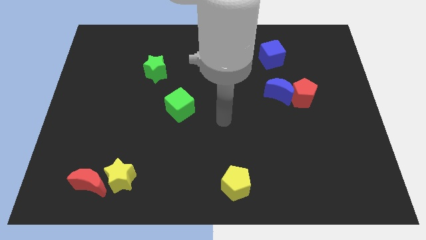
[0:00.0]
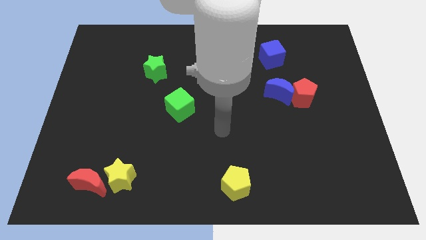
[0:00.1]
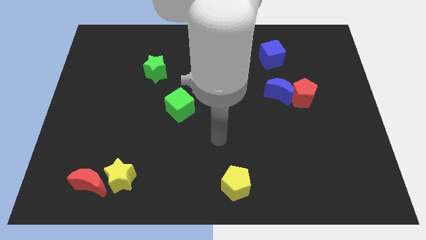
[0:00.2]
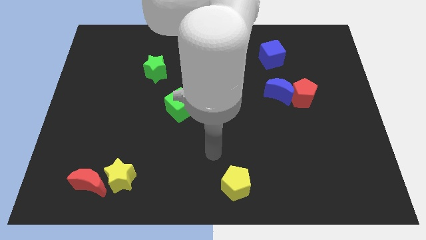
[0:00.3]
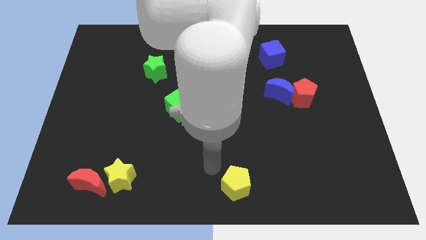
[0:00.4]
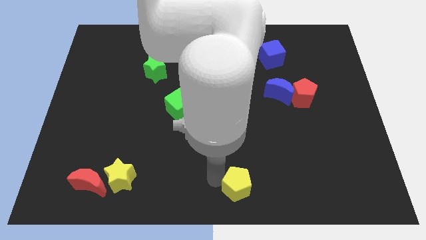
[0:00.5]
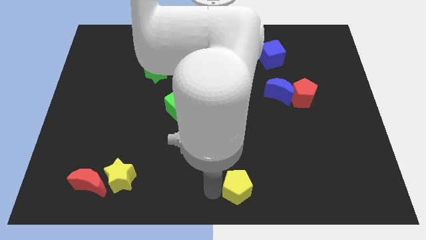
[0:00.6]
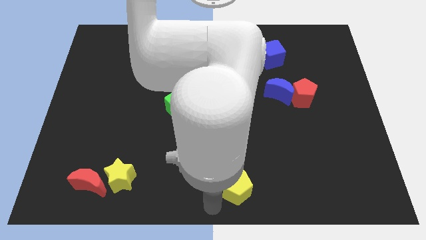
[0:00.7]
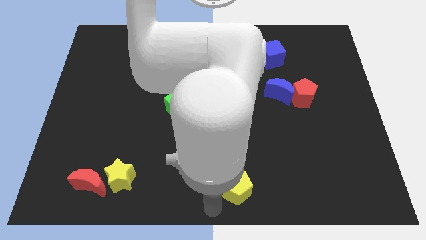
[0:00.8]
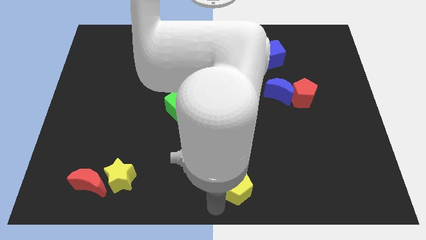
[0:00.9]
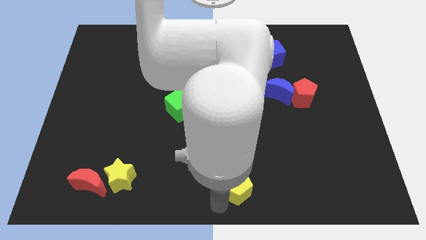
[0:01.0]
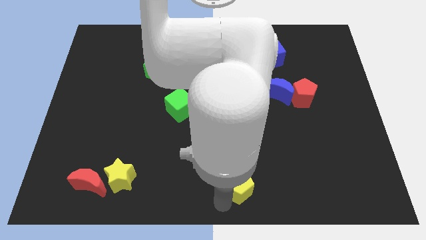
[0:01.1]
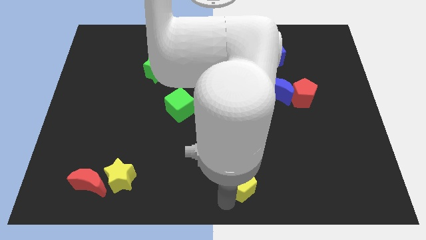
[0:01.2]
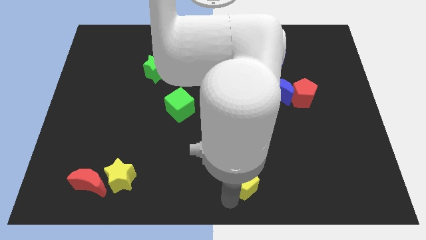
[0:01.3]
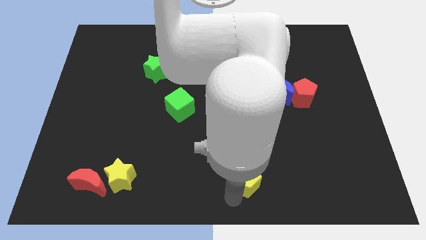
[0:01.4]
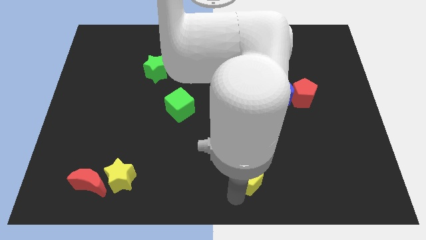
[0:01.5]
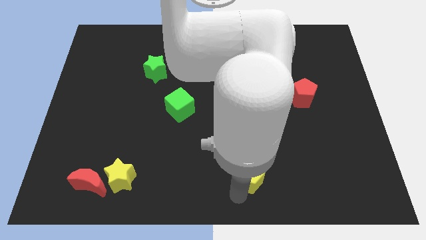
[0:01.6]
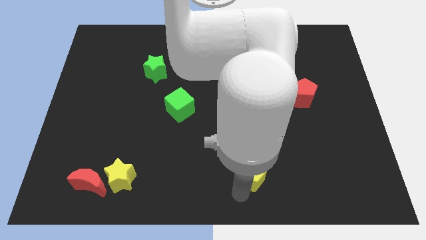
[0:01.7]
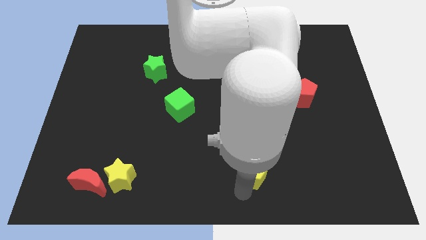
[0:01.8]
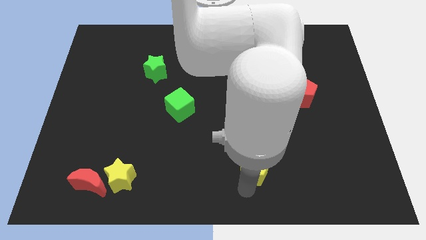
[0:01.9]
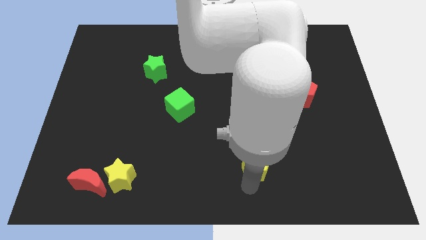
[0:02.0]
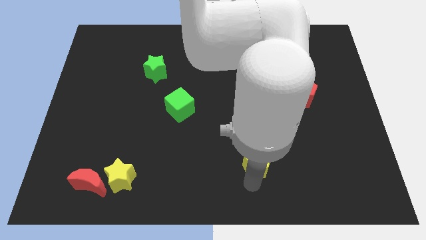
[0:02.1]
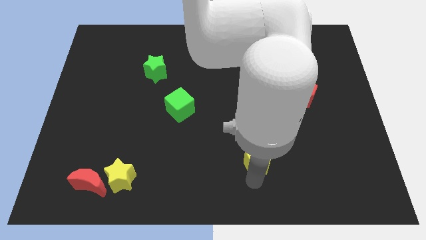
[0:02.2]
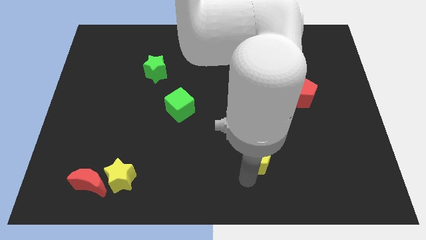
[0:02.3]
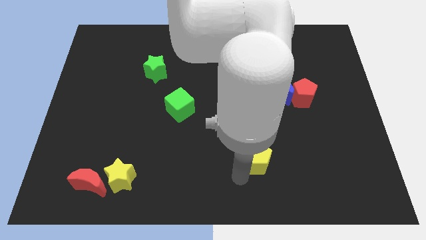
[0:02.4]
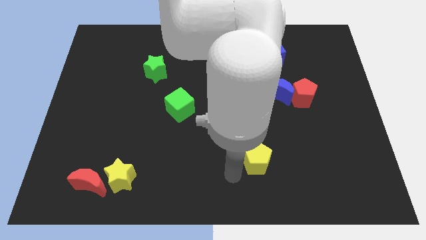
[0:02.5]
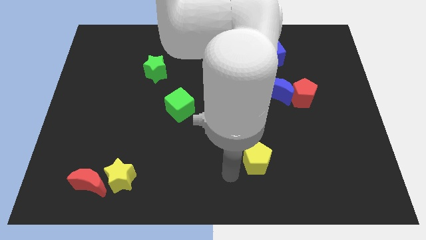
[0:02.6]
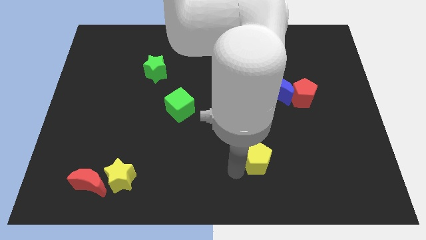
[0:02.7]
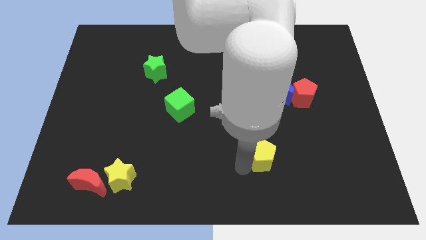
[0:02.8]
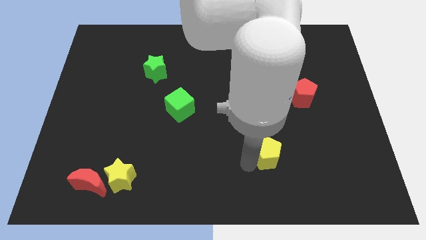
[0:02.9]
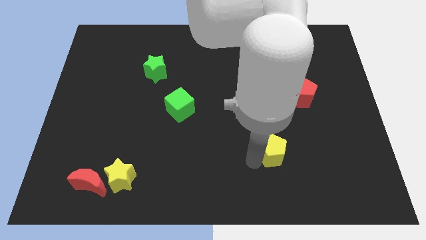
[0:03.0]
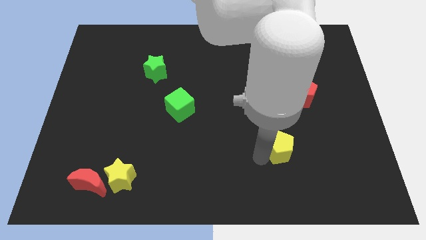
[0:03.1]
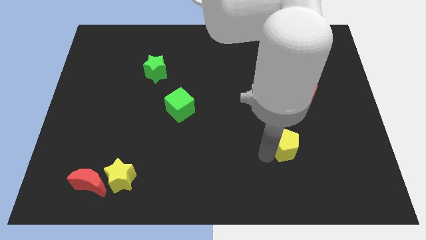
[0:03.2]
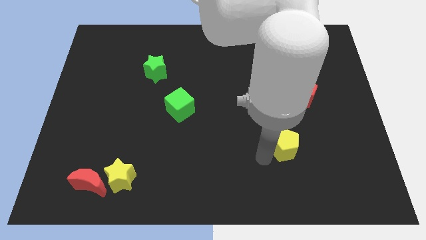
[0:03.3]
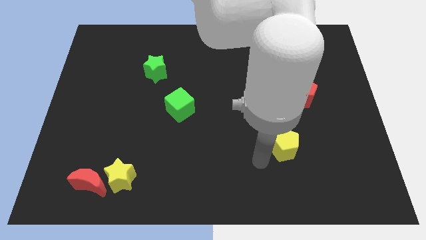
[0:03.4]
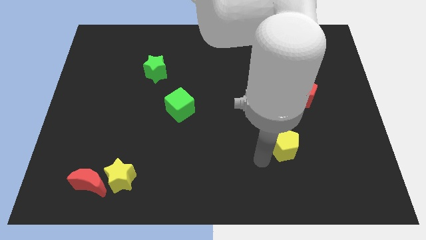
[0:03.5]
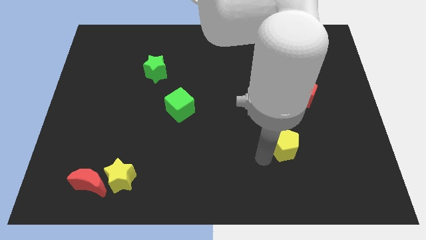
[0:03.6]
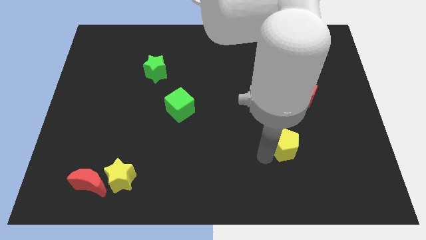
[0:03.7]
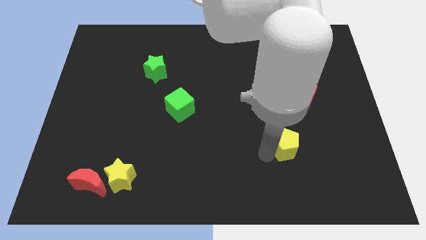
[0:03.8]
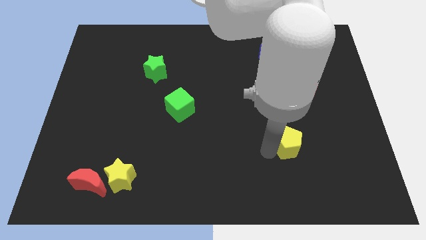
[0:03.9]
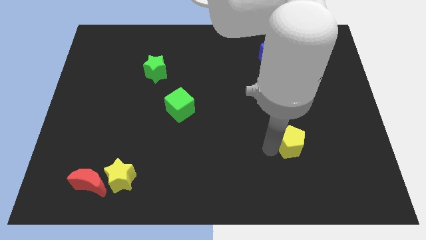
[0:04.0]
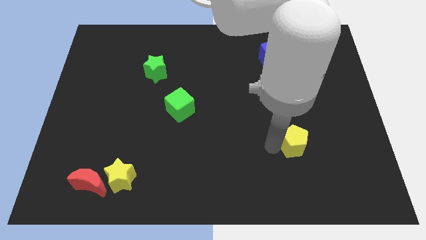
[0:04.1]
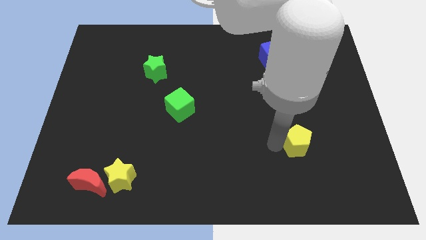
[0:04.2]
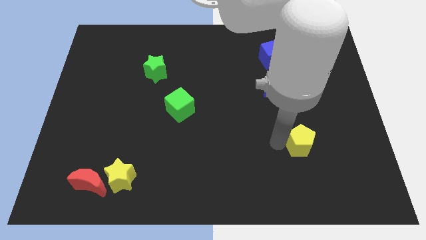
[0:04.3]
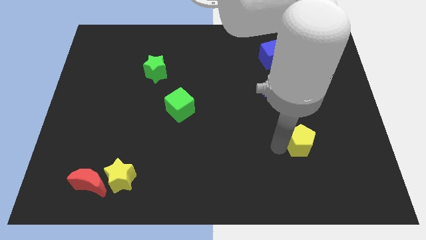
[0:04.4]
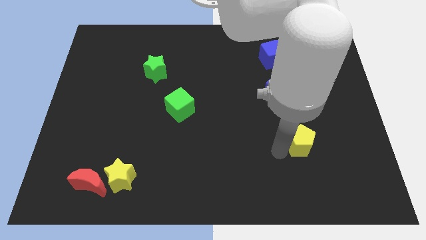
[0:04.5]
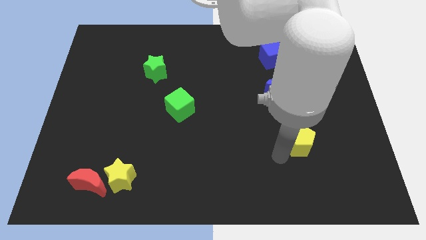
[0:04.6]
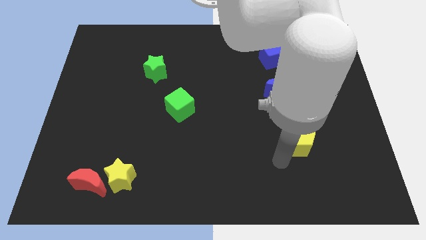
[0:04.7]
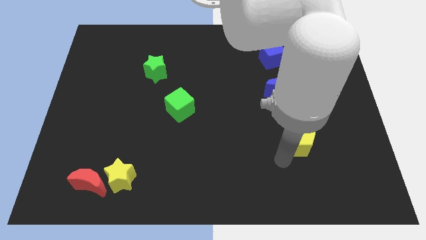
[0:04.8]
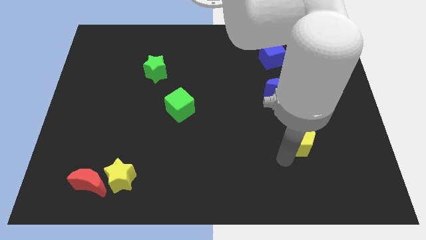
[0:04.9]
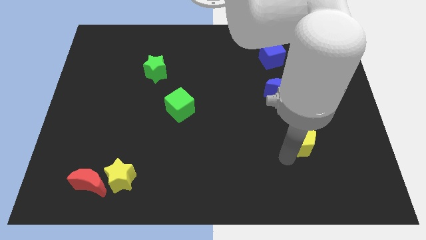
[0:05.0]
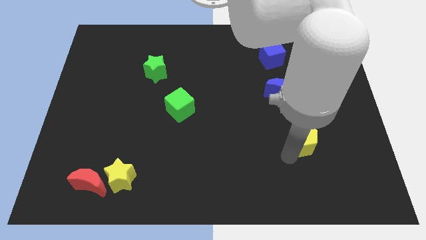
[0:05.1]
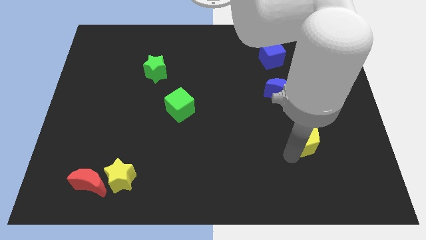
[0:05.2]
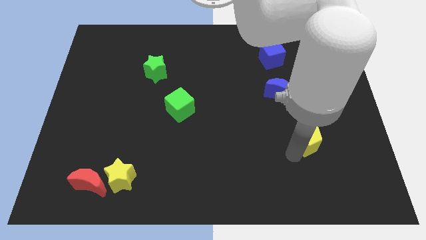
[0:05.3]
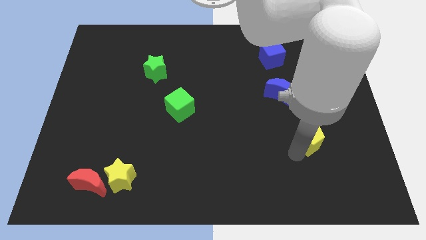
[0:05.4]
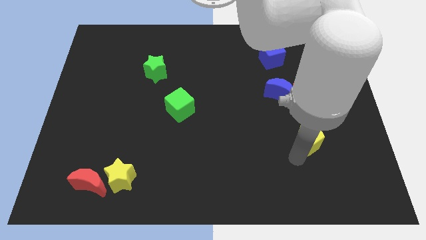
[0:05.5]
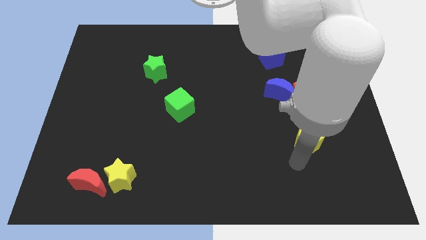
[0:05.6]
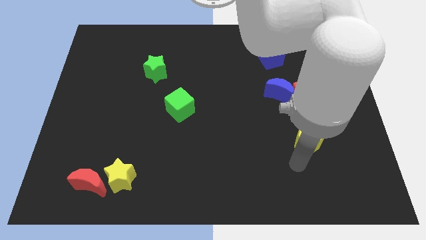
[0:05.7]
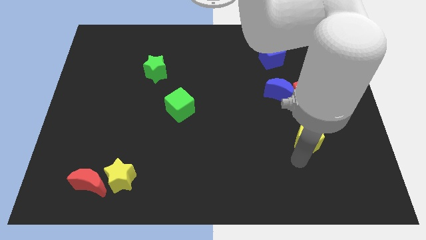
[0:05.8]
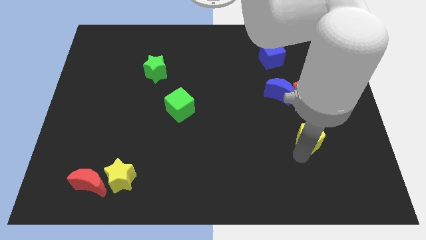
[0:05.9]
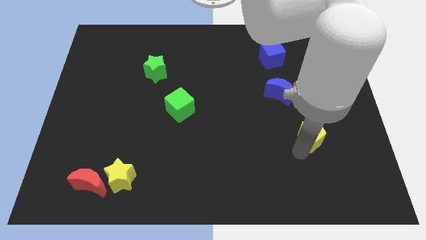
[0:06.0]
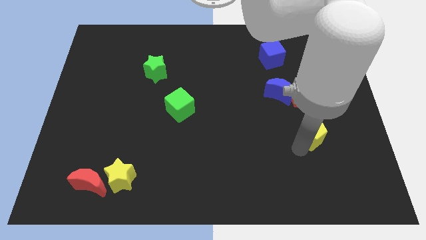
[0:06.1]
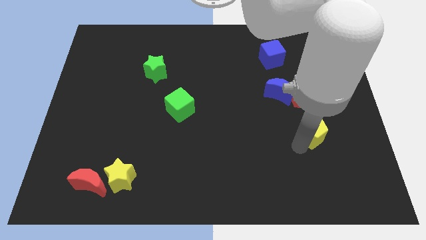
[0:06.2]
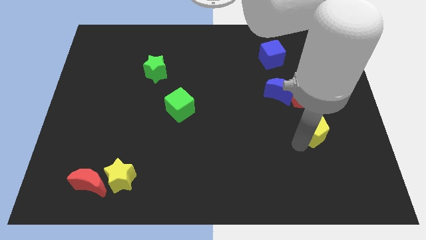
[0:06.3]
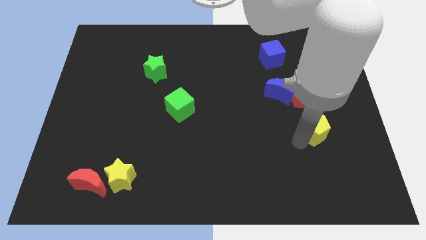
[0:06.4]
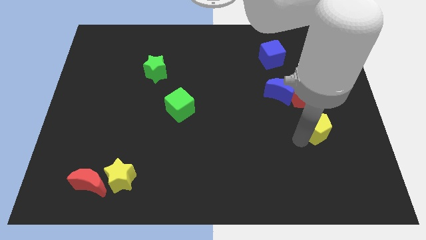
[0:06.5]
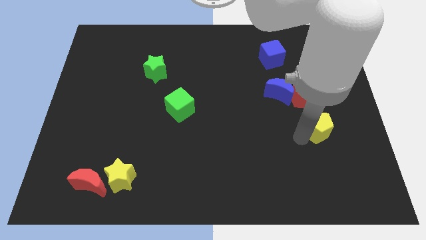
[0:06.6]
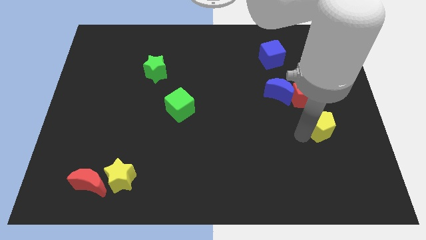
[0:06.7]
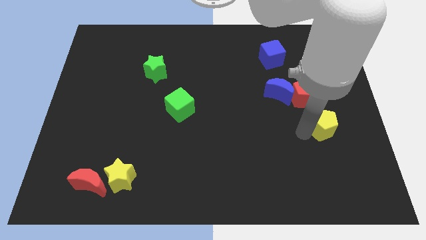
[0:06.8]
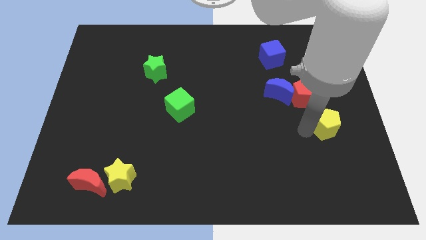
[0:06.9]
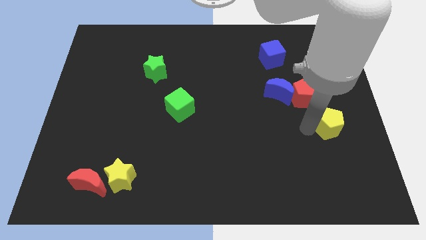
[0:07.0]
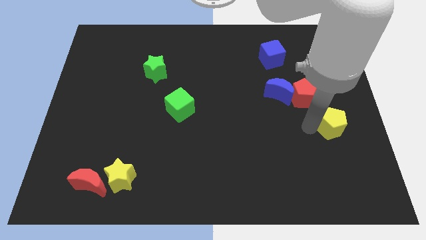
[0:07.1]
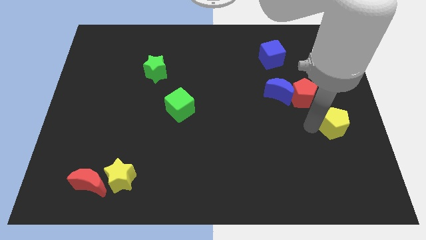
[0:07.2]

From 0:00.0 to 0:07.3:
put the yellow pentagon to the right side of the board
